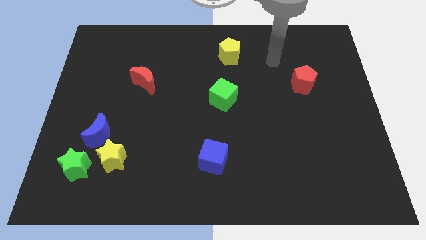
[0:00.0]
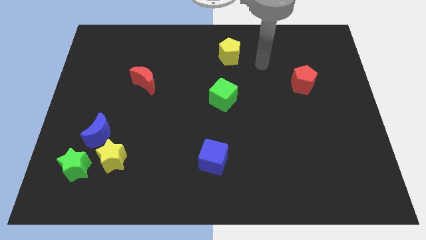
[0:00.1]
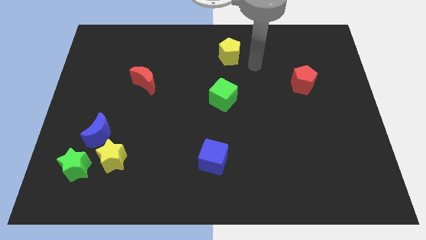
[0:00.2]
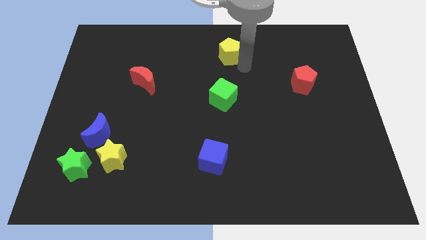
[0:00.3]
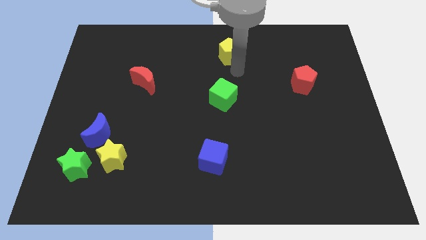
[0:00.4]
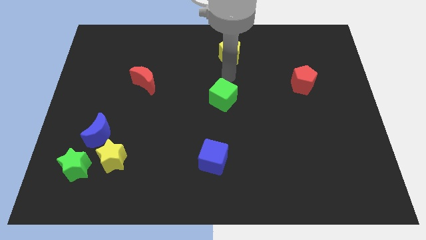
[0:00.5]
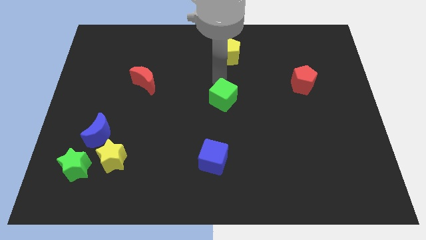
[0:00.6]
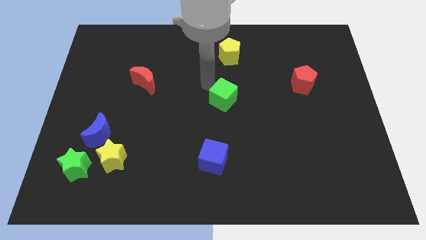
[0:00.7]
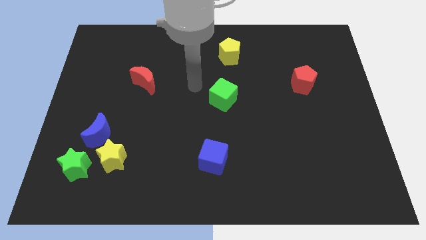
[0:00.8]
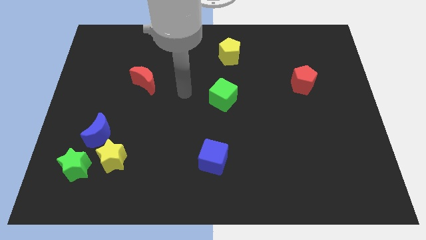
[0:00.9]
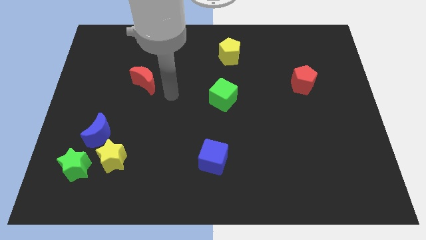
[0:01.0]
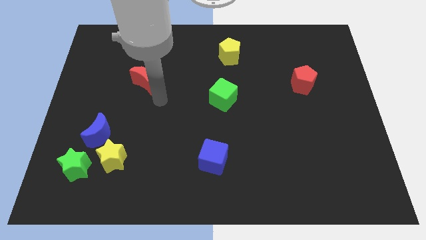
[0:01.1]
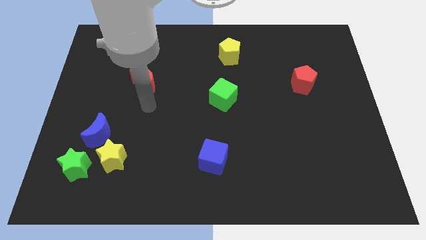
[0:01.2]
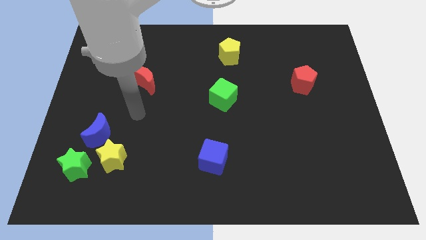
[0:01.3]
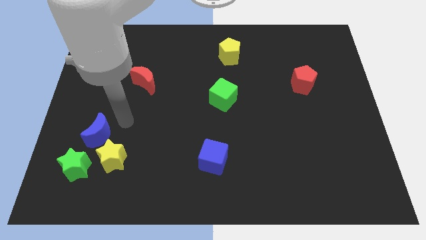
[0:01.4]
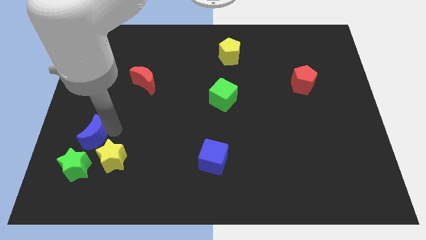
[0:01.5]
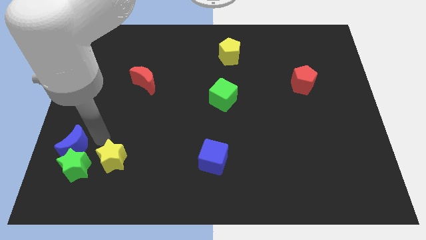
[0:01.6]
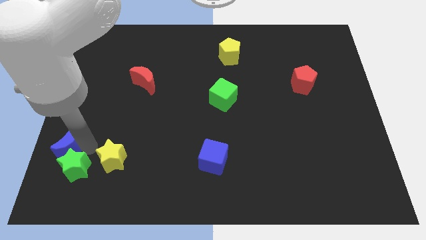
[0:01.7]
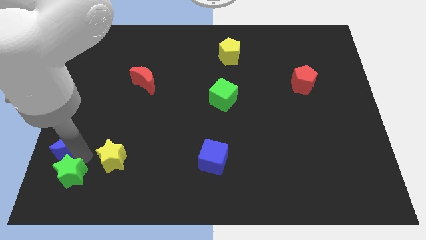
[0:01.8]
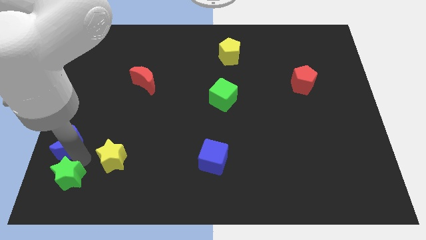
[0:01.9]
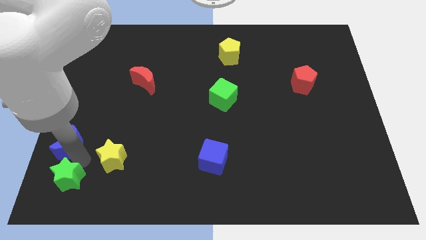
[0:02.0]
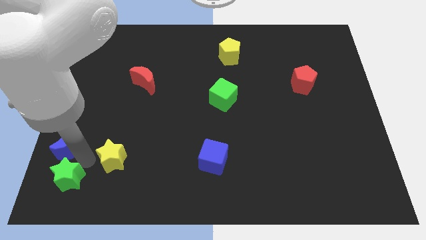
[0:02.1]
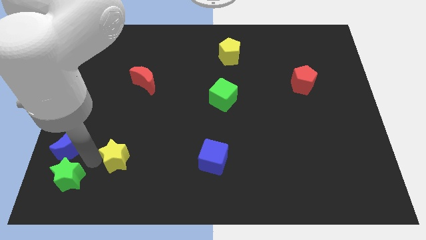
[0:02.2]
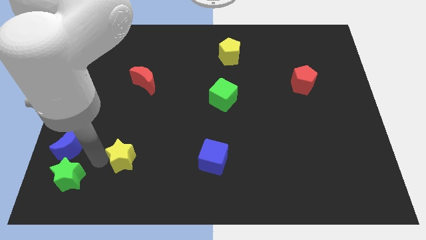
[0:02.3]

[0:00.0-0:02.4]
separate the yellow star from the blue moon and green star

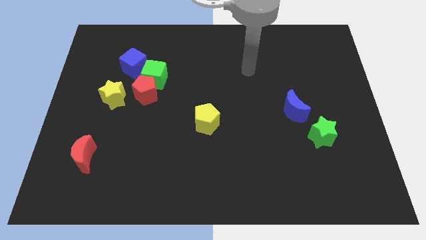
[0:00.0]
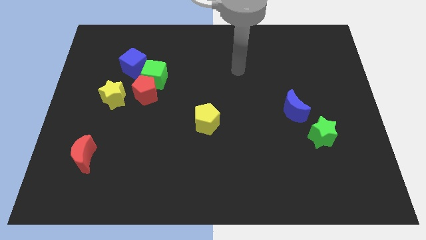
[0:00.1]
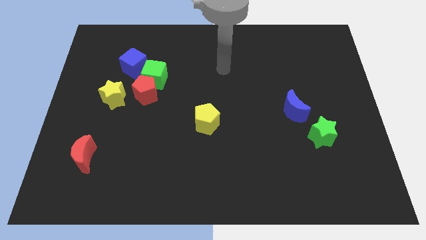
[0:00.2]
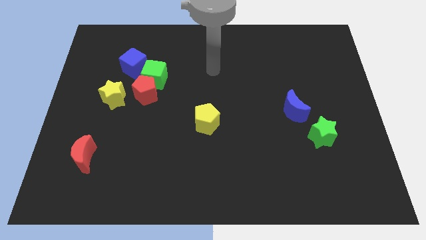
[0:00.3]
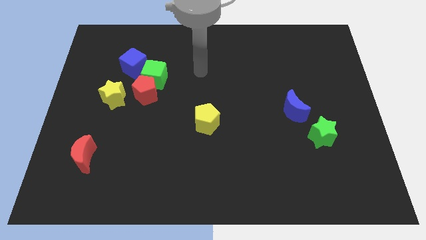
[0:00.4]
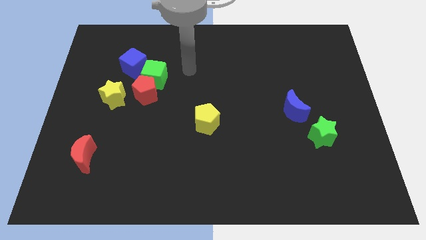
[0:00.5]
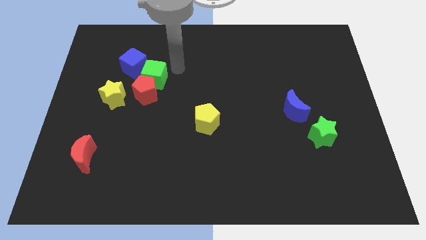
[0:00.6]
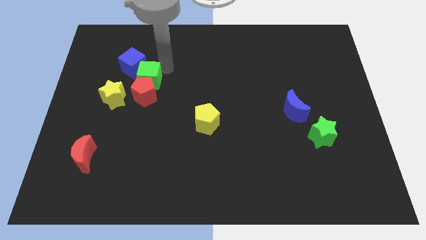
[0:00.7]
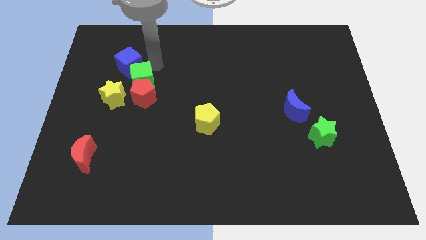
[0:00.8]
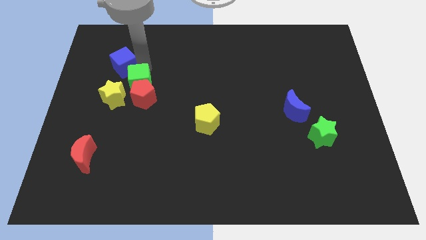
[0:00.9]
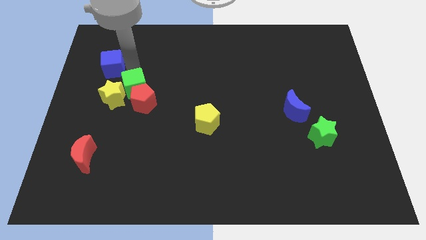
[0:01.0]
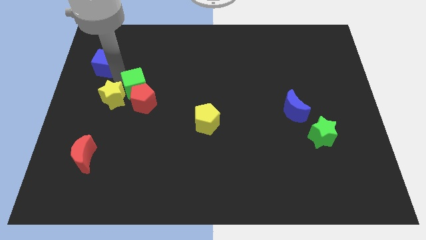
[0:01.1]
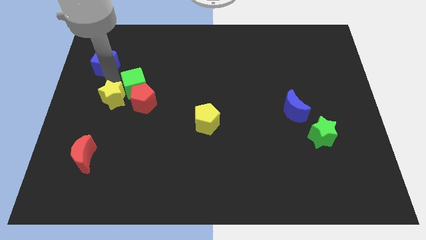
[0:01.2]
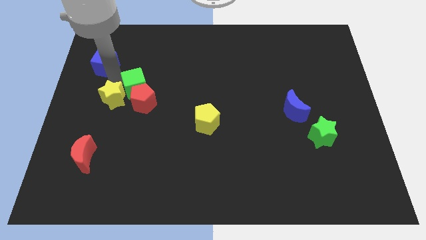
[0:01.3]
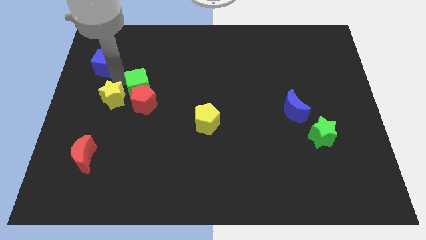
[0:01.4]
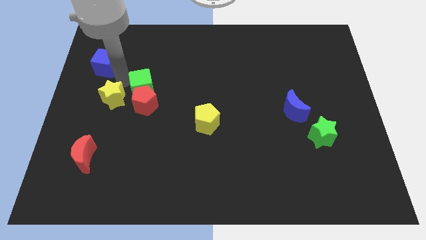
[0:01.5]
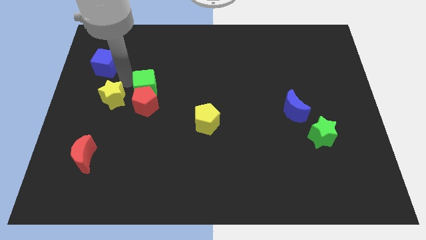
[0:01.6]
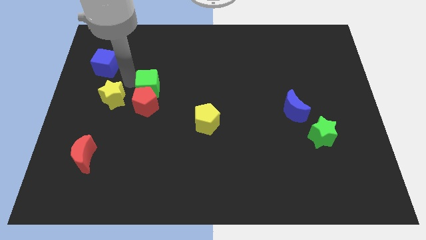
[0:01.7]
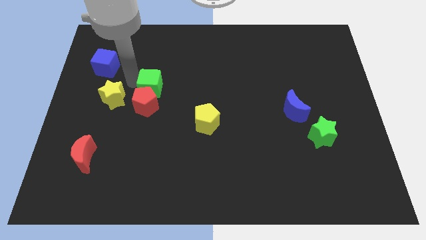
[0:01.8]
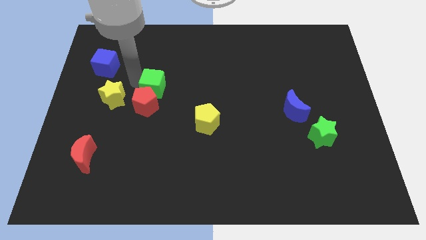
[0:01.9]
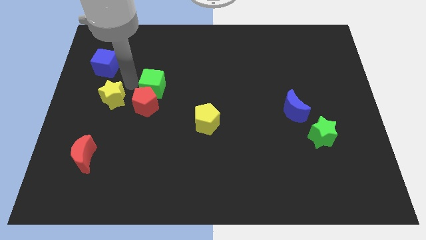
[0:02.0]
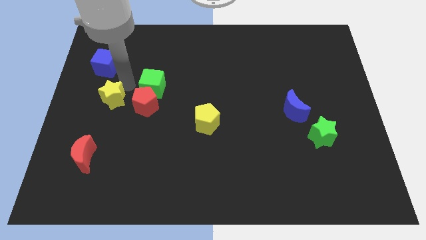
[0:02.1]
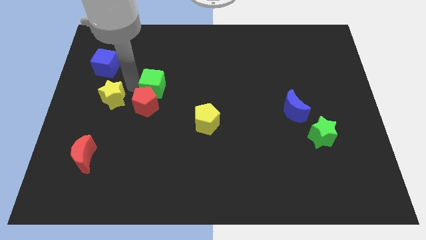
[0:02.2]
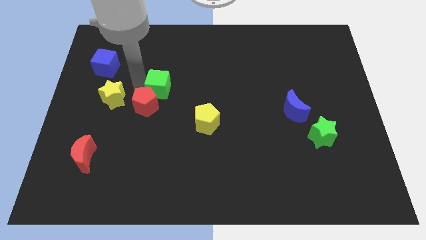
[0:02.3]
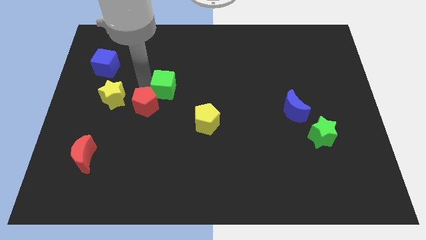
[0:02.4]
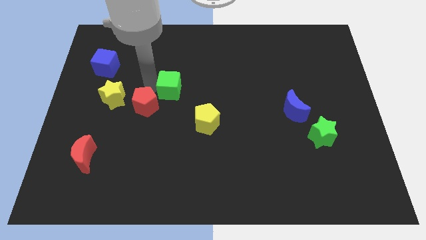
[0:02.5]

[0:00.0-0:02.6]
move the green cube away from the red pentagon and blue cube

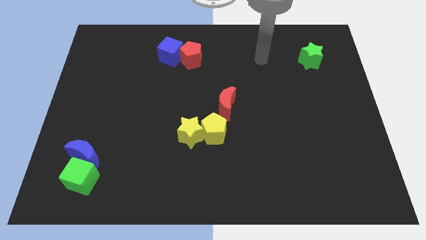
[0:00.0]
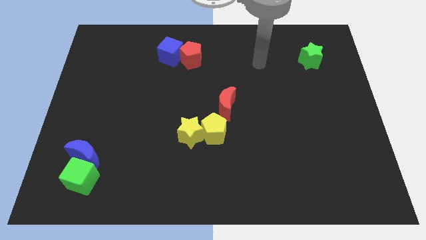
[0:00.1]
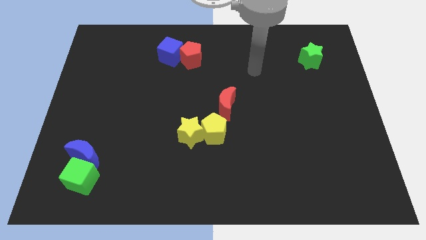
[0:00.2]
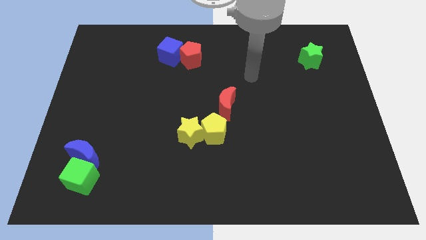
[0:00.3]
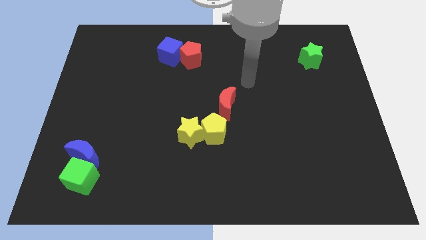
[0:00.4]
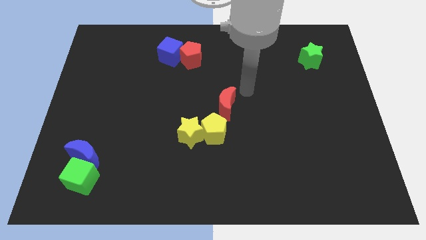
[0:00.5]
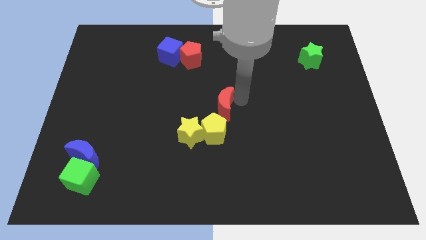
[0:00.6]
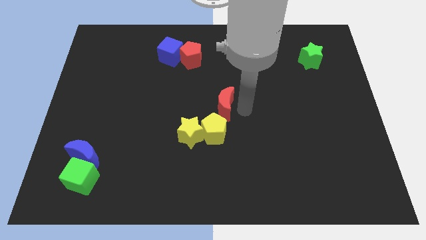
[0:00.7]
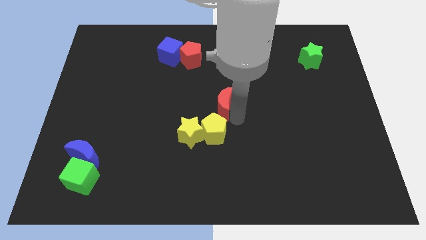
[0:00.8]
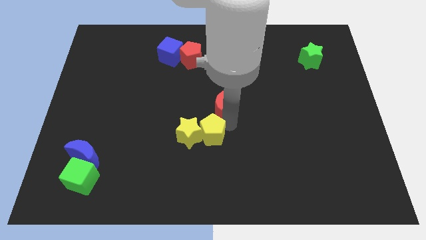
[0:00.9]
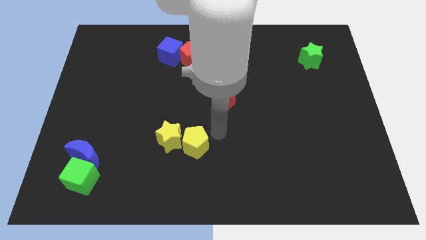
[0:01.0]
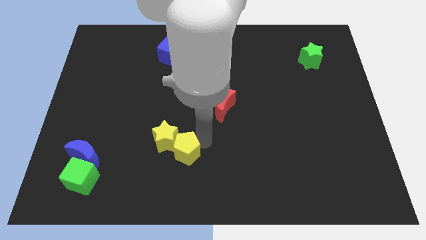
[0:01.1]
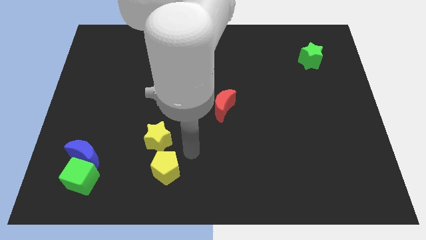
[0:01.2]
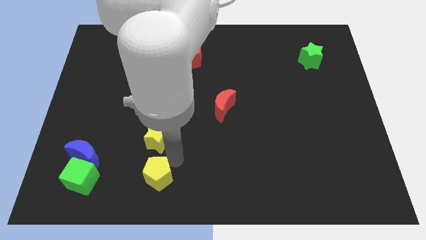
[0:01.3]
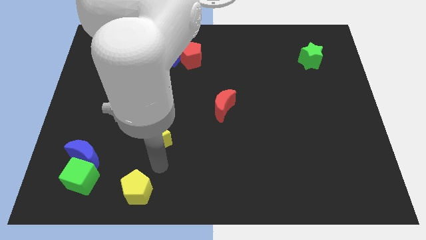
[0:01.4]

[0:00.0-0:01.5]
separate the yellow star from the yellow pentagon

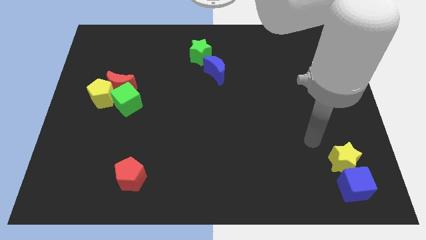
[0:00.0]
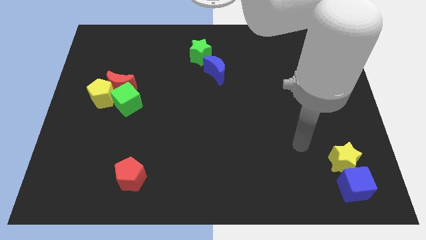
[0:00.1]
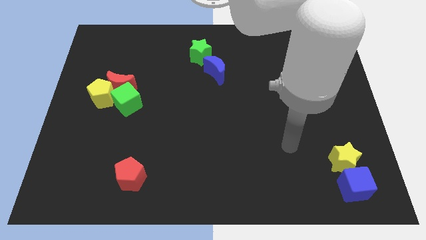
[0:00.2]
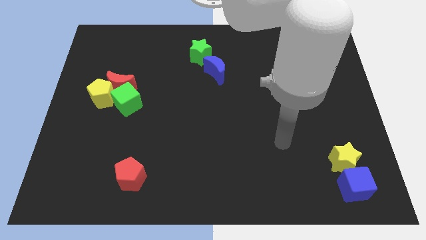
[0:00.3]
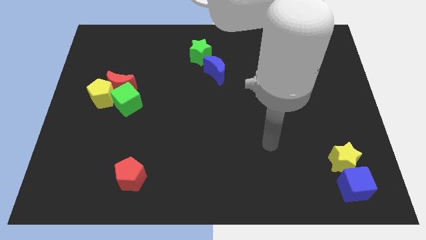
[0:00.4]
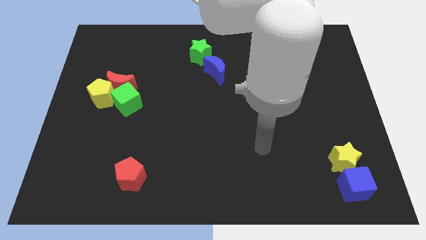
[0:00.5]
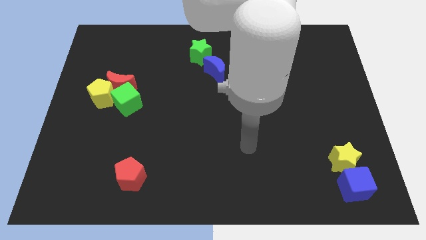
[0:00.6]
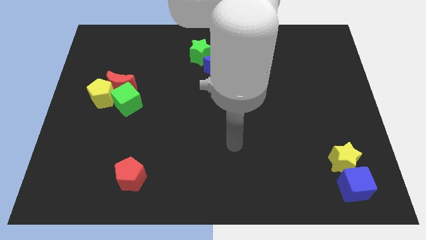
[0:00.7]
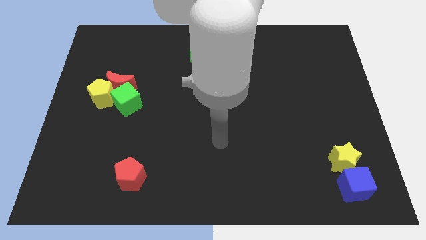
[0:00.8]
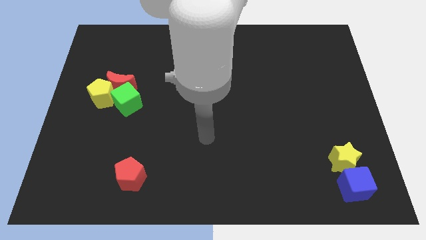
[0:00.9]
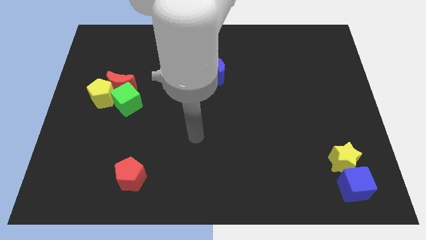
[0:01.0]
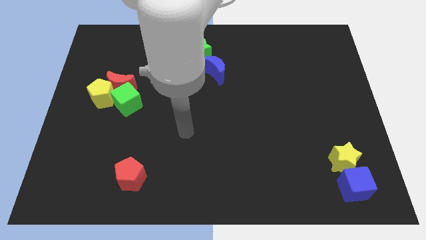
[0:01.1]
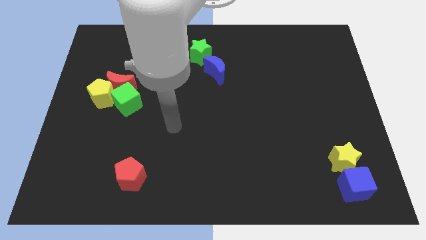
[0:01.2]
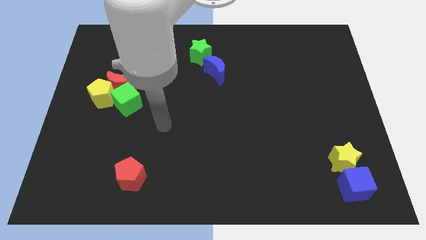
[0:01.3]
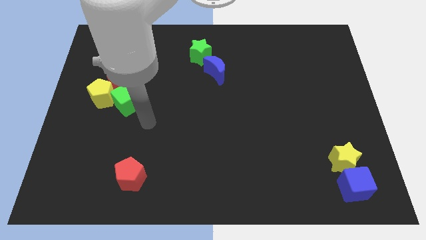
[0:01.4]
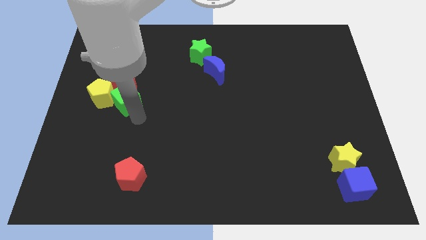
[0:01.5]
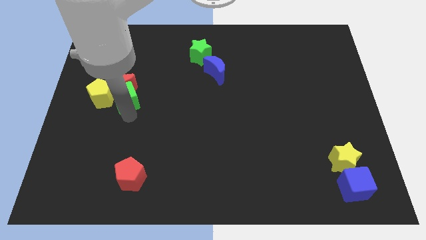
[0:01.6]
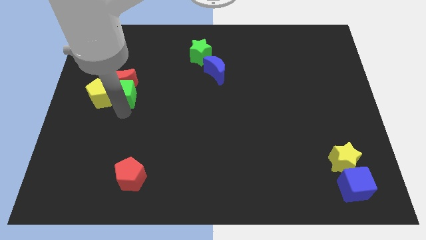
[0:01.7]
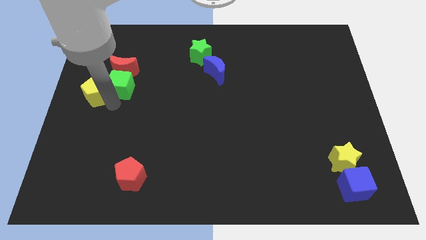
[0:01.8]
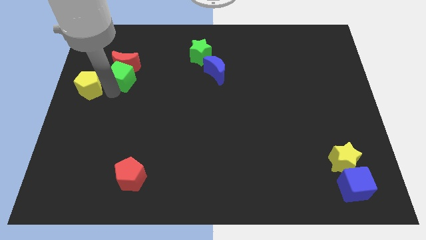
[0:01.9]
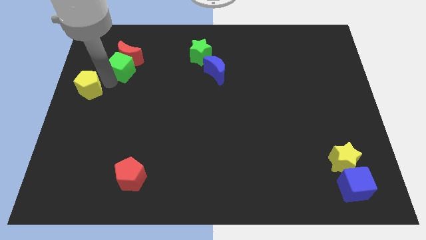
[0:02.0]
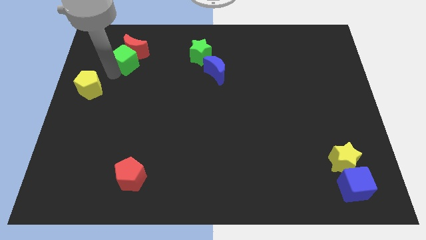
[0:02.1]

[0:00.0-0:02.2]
move the red moon away from the yellow pentagon and green cube

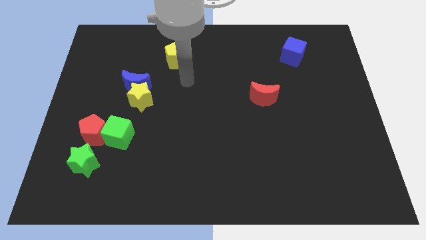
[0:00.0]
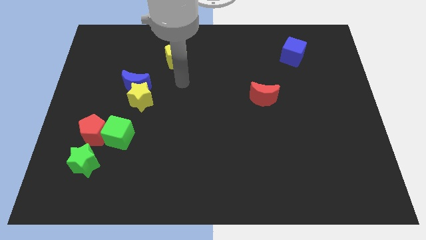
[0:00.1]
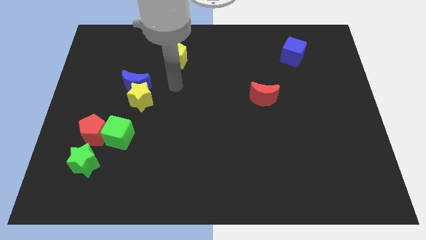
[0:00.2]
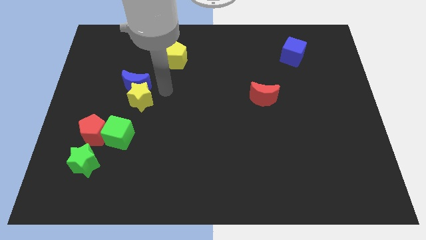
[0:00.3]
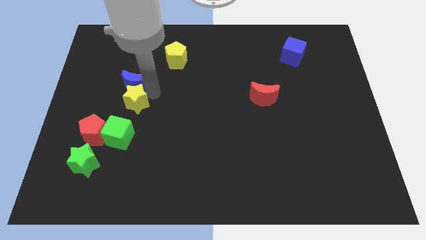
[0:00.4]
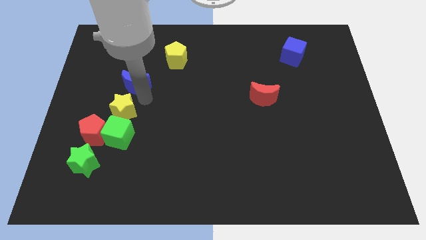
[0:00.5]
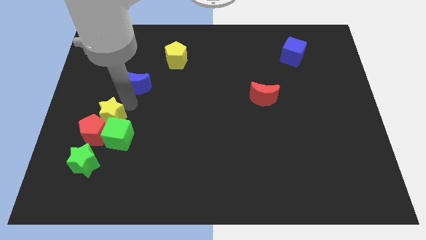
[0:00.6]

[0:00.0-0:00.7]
separate the blue moon from the yellow star
